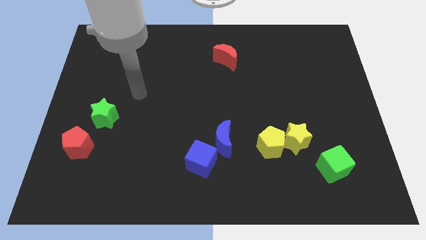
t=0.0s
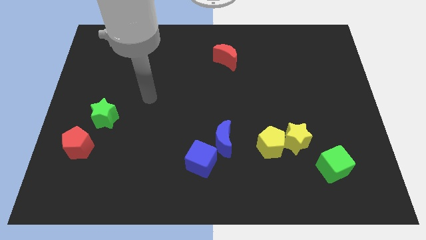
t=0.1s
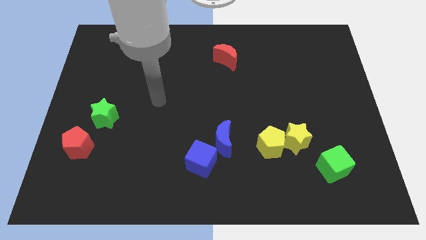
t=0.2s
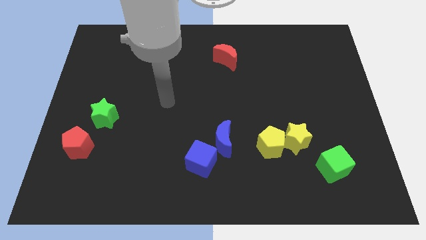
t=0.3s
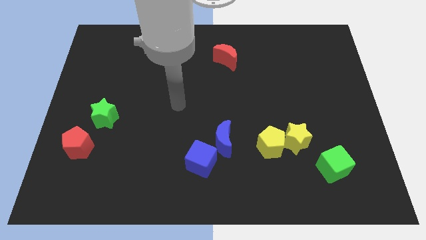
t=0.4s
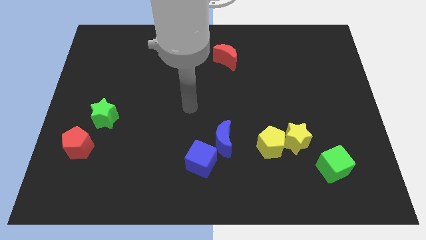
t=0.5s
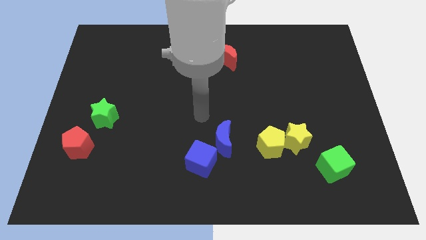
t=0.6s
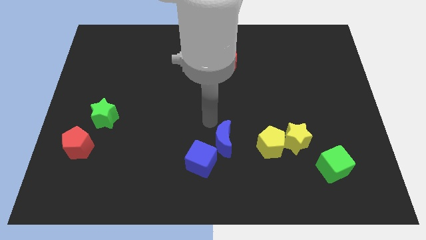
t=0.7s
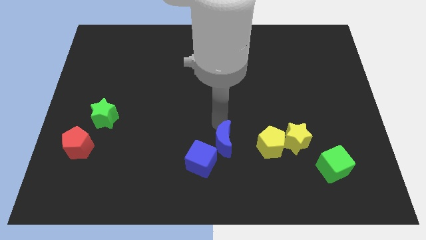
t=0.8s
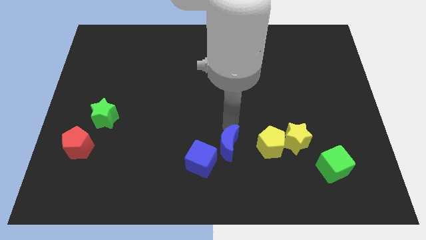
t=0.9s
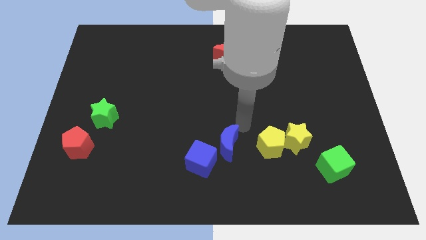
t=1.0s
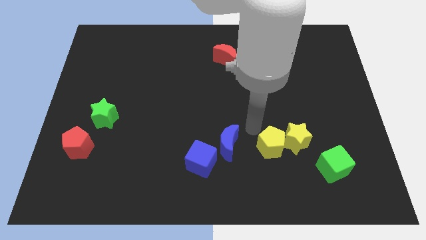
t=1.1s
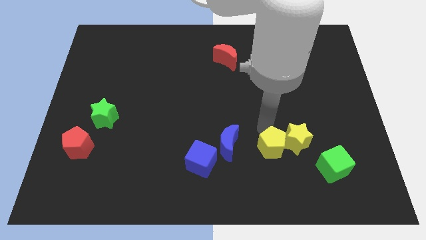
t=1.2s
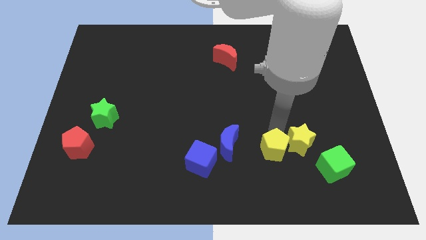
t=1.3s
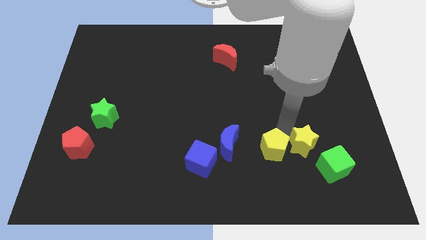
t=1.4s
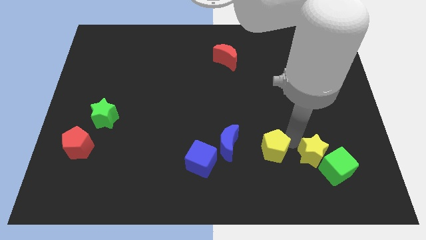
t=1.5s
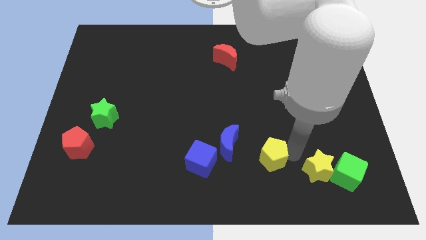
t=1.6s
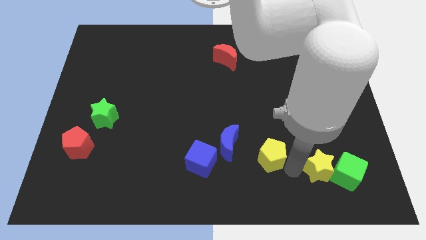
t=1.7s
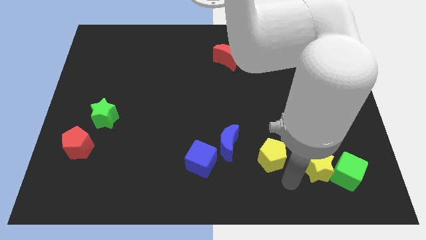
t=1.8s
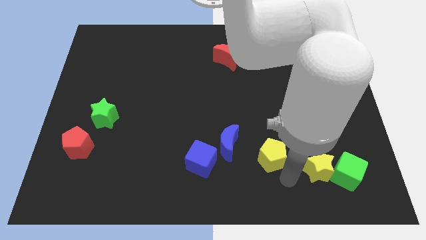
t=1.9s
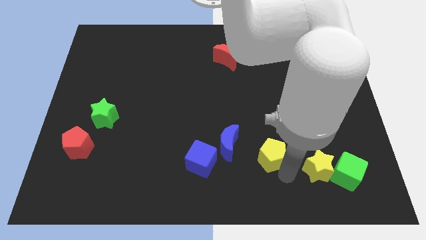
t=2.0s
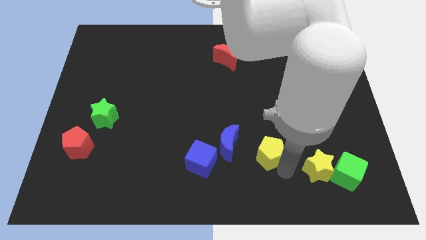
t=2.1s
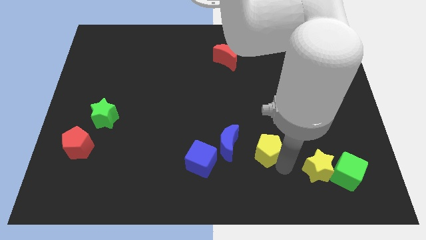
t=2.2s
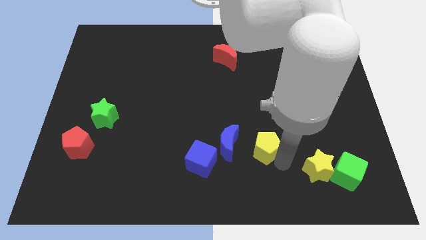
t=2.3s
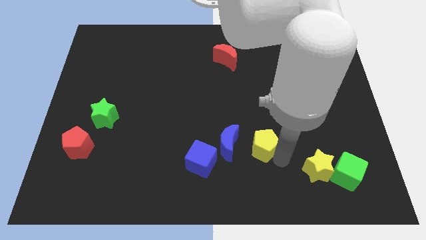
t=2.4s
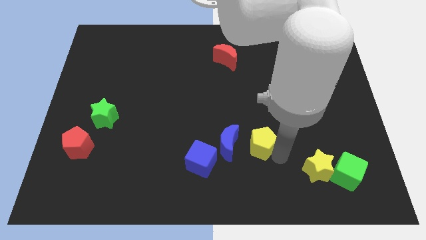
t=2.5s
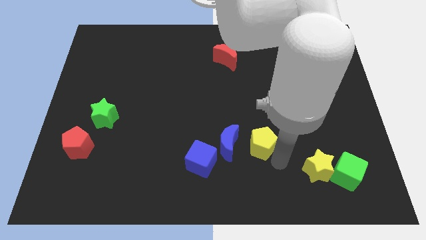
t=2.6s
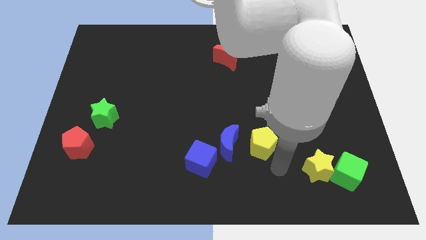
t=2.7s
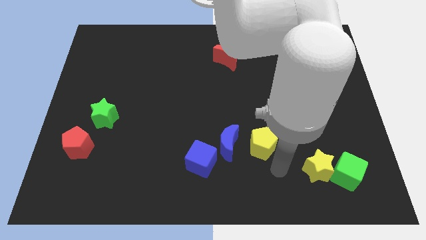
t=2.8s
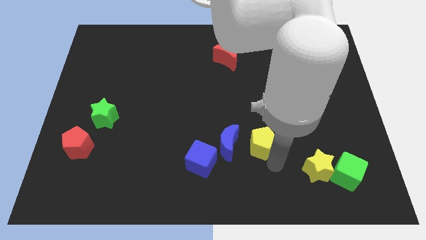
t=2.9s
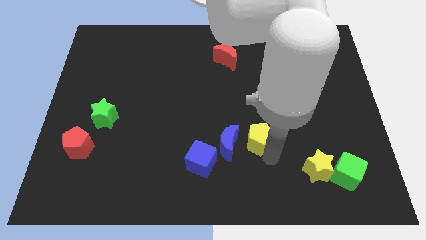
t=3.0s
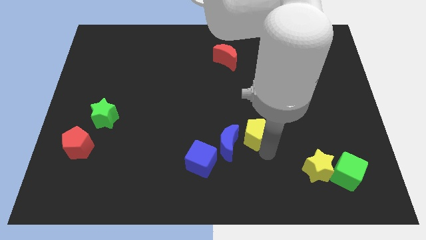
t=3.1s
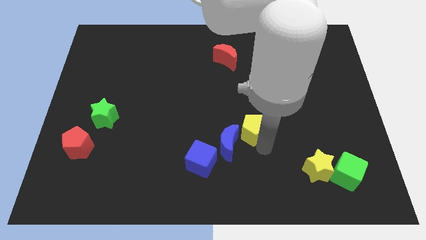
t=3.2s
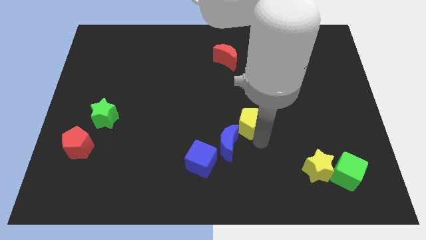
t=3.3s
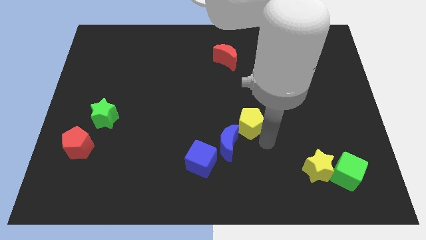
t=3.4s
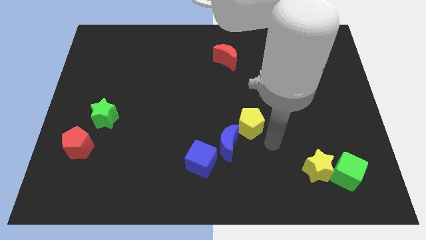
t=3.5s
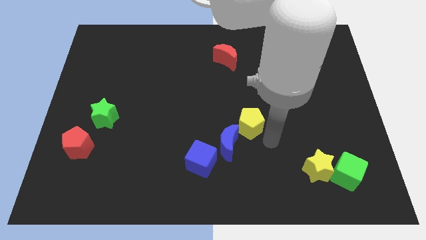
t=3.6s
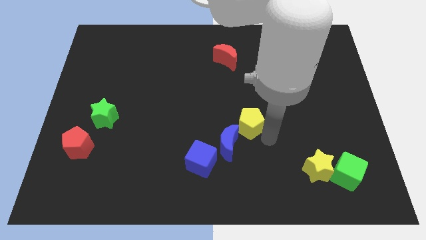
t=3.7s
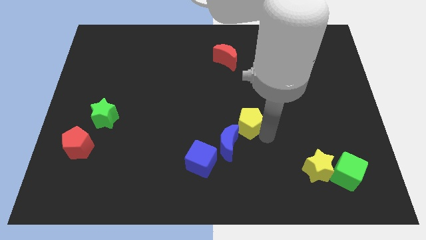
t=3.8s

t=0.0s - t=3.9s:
move the yellow pentagon up and left a bit

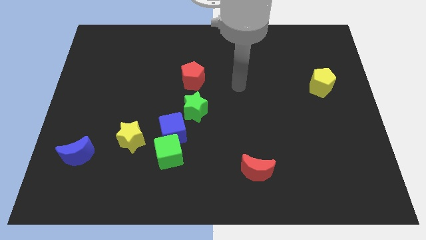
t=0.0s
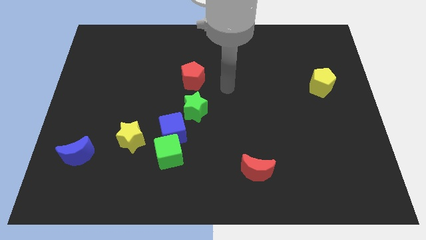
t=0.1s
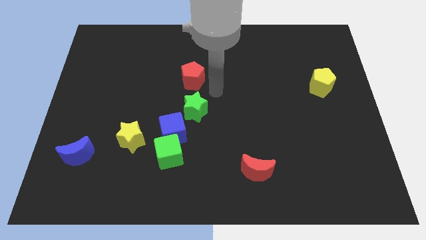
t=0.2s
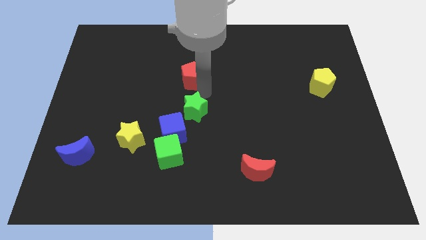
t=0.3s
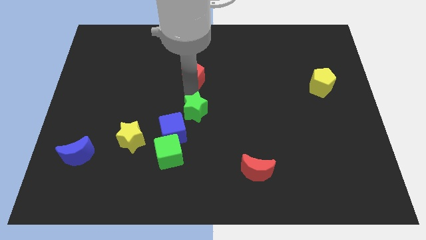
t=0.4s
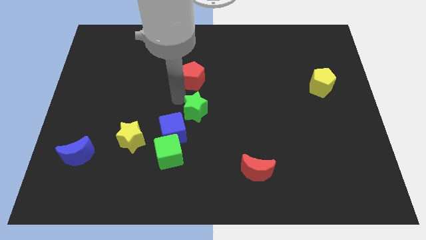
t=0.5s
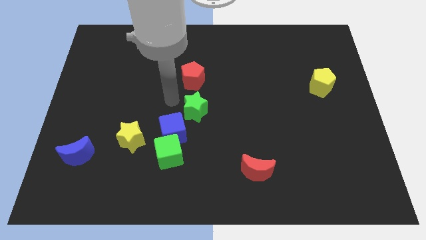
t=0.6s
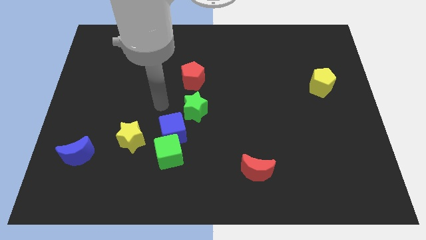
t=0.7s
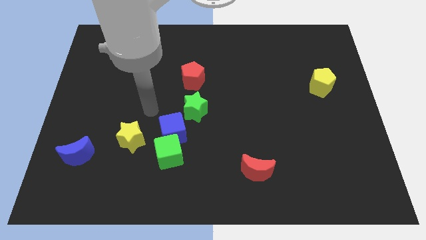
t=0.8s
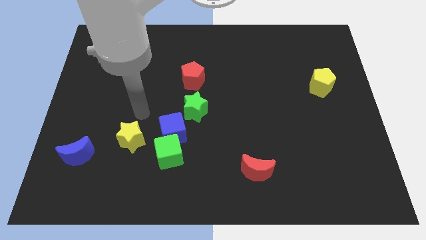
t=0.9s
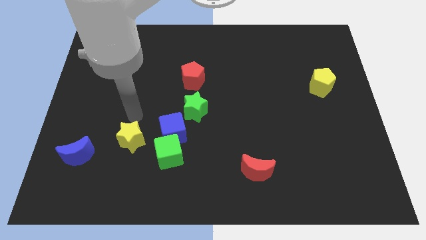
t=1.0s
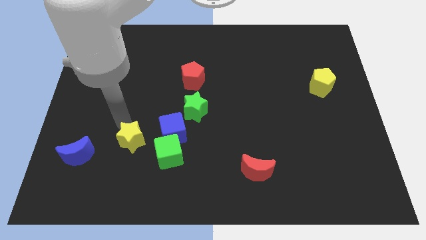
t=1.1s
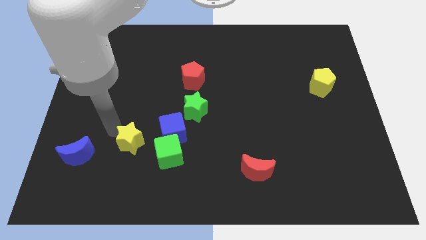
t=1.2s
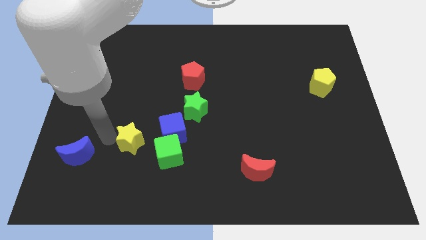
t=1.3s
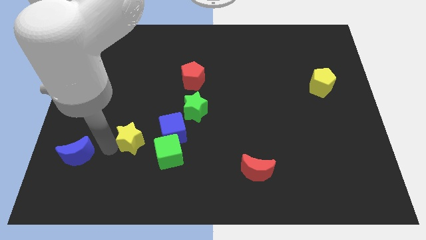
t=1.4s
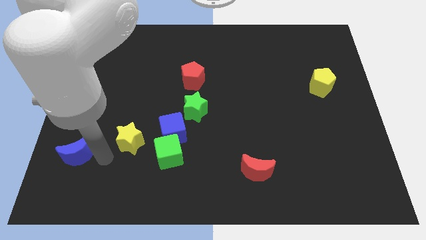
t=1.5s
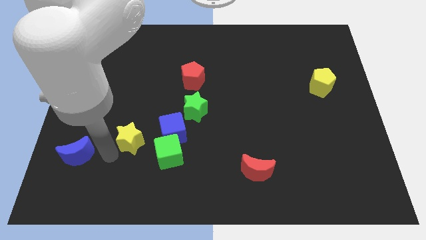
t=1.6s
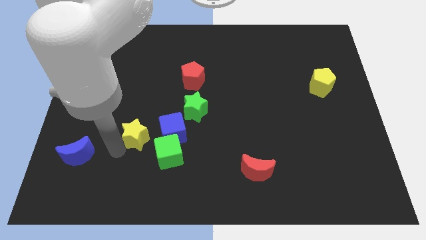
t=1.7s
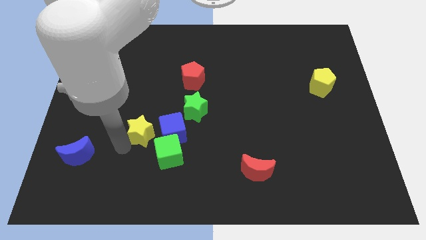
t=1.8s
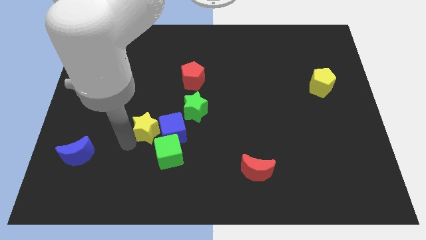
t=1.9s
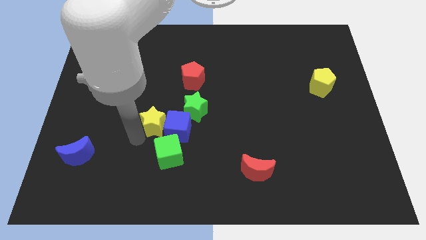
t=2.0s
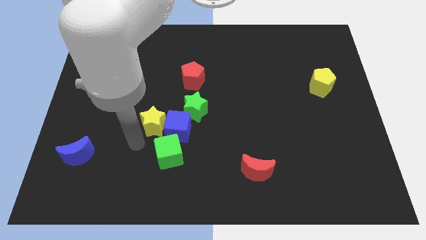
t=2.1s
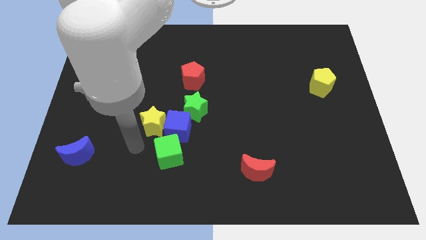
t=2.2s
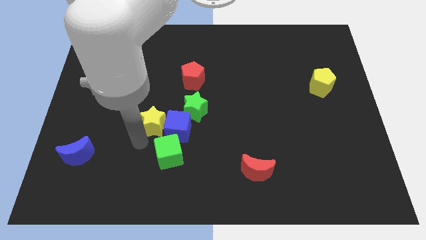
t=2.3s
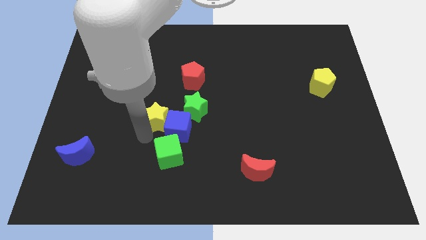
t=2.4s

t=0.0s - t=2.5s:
push the yellow star somewhat upwards and right

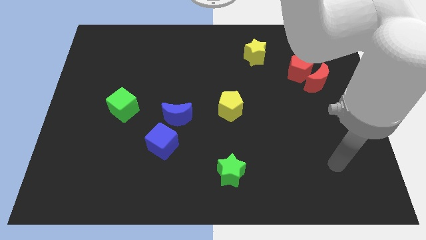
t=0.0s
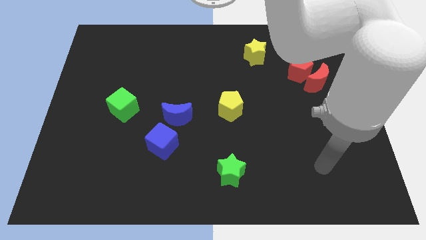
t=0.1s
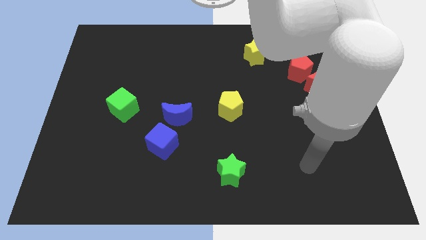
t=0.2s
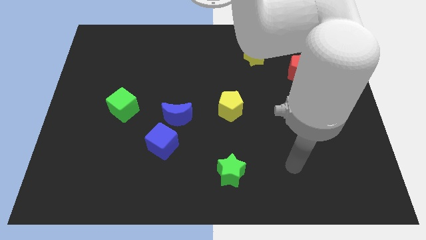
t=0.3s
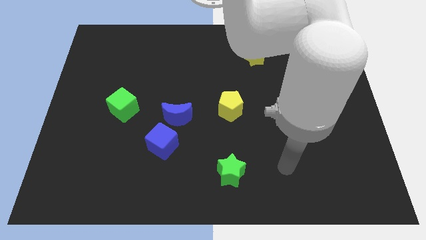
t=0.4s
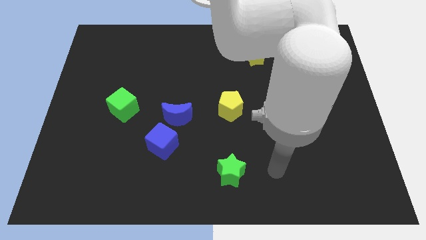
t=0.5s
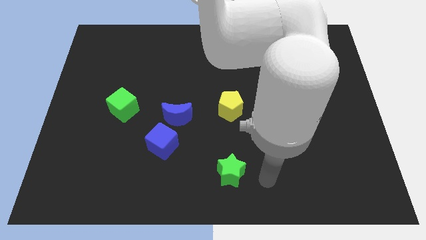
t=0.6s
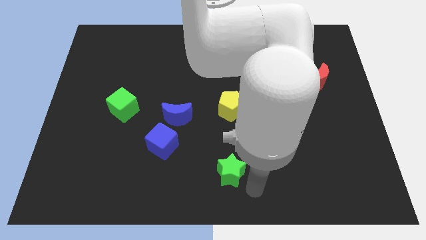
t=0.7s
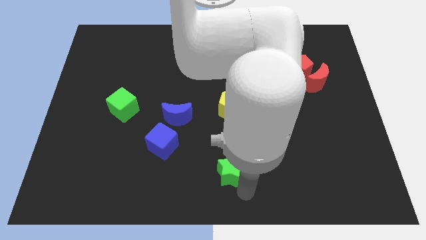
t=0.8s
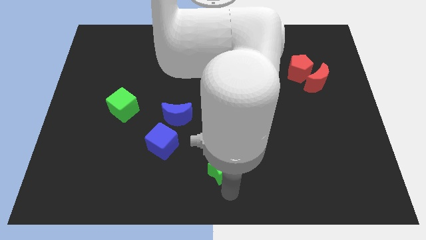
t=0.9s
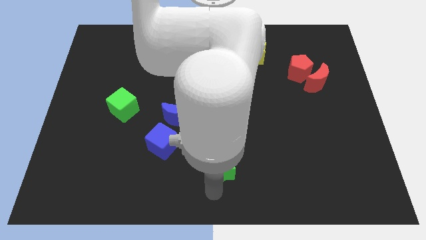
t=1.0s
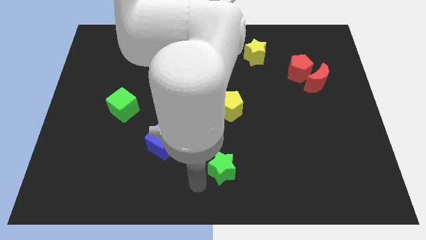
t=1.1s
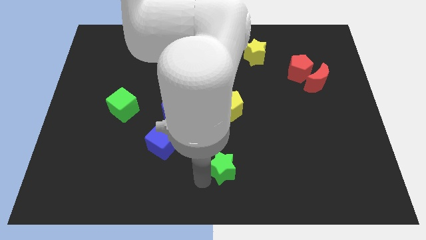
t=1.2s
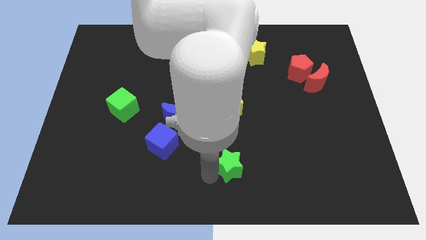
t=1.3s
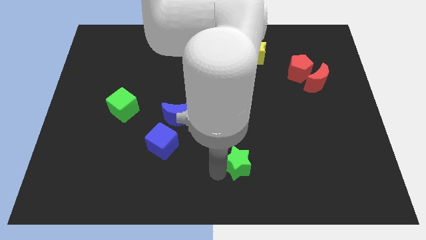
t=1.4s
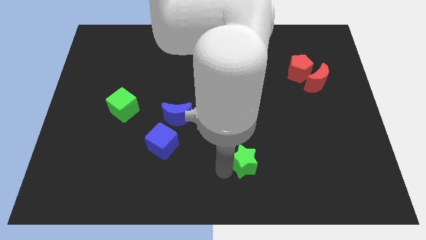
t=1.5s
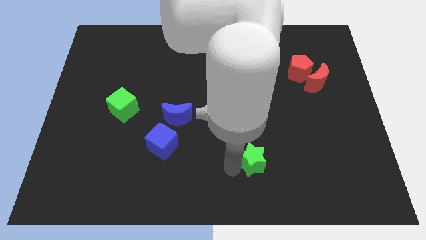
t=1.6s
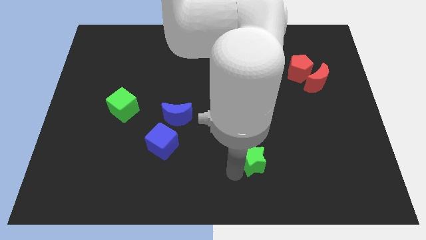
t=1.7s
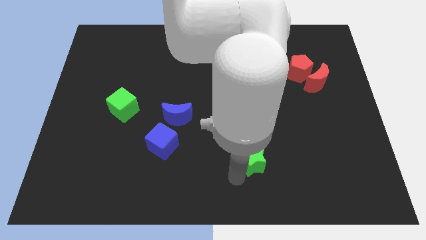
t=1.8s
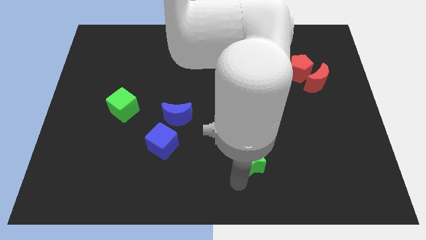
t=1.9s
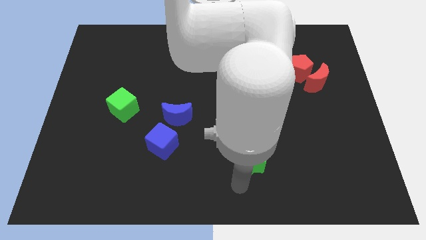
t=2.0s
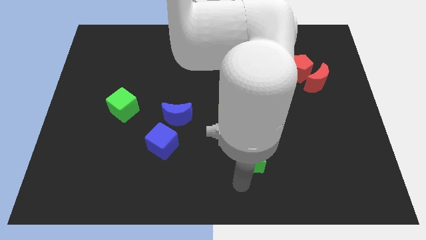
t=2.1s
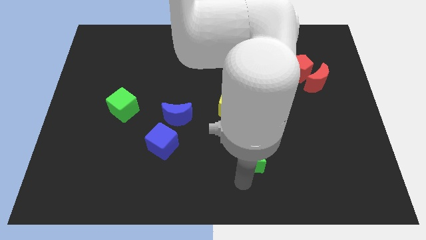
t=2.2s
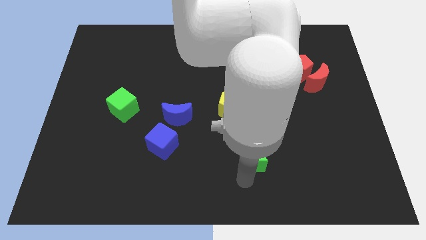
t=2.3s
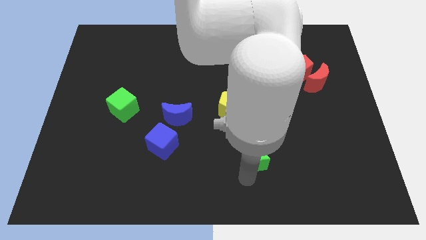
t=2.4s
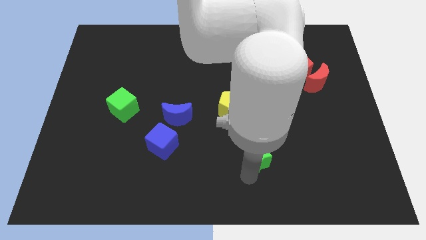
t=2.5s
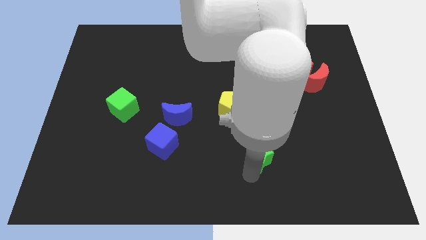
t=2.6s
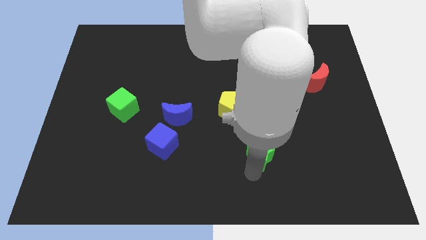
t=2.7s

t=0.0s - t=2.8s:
move the green star upwards and then to the right somewhat
